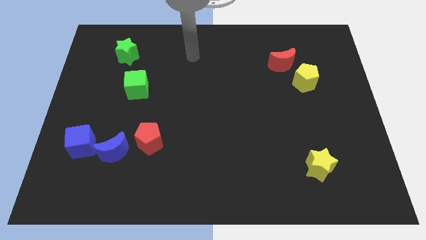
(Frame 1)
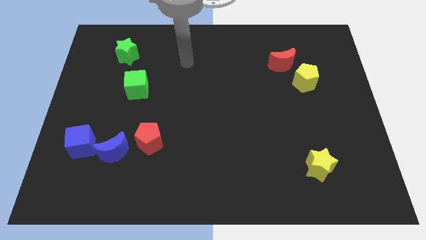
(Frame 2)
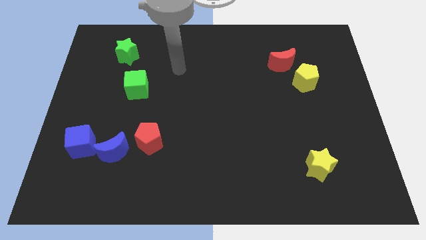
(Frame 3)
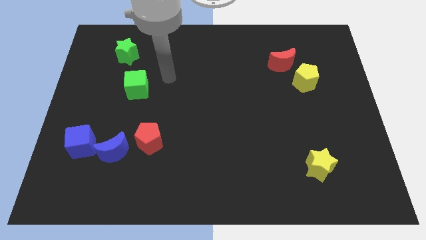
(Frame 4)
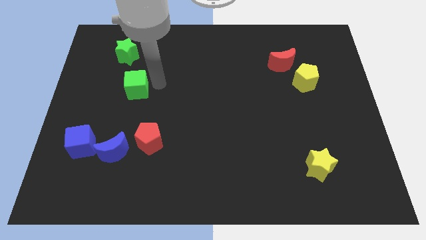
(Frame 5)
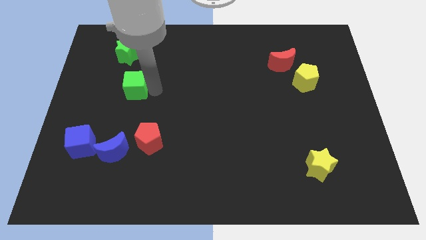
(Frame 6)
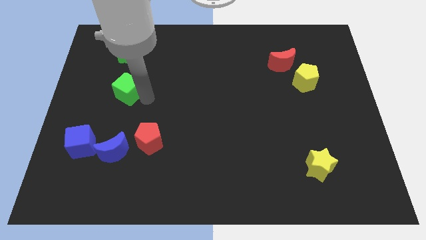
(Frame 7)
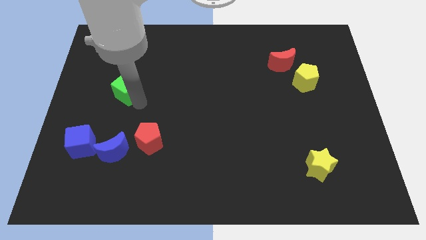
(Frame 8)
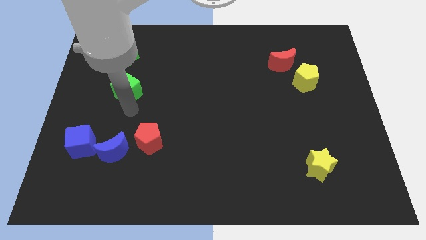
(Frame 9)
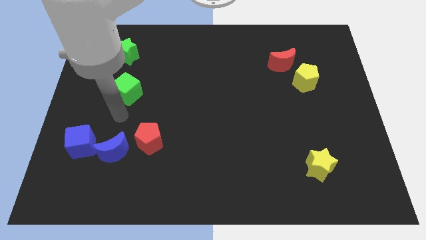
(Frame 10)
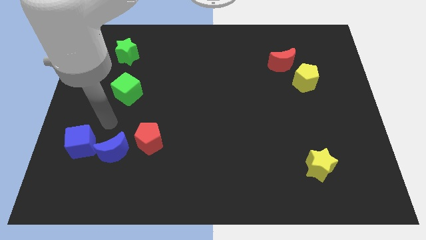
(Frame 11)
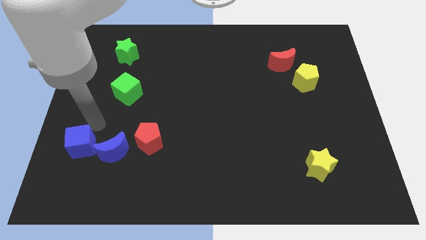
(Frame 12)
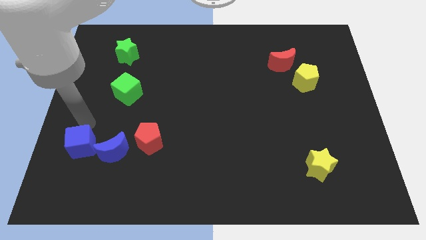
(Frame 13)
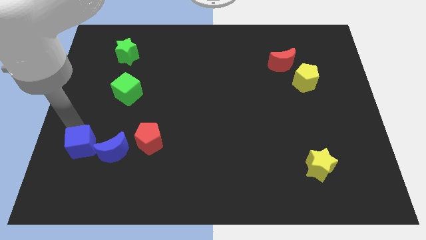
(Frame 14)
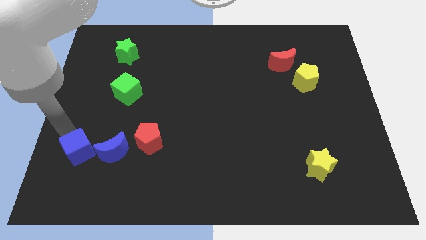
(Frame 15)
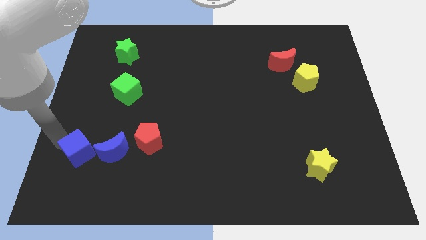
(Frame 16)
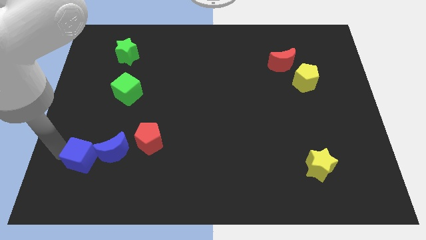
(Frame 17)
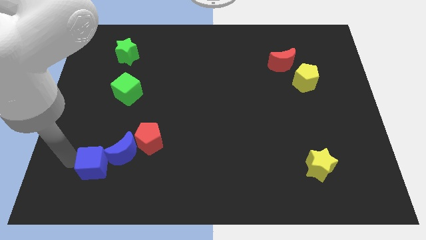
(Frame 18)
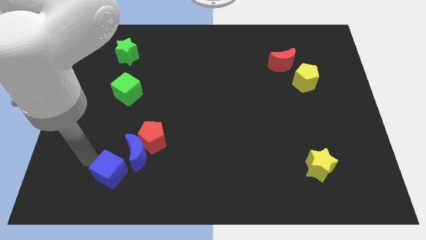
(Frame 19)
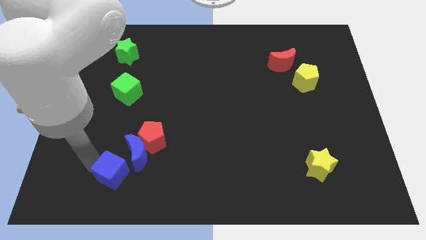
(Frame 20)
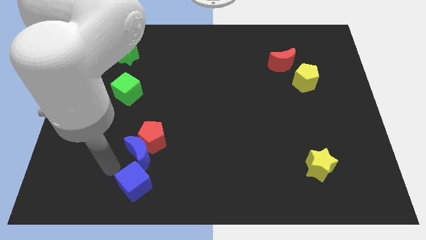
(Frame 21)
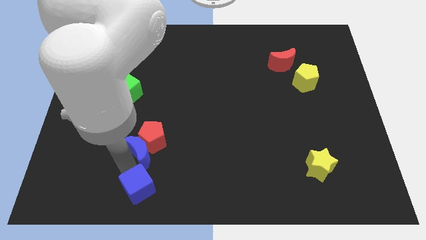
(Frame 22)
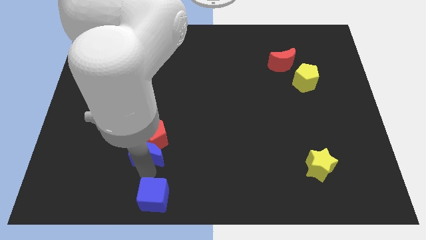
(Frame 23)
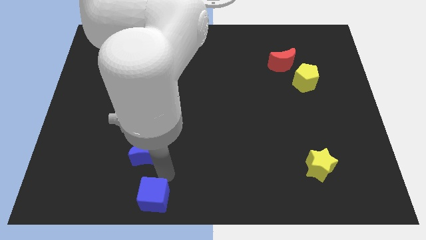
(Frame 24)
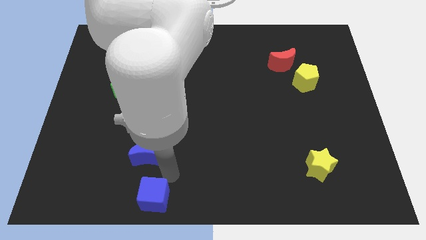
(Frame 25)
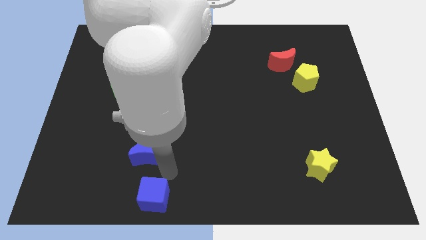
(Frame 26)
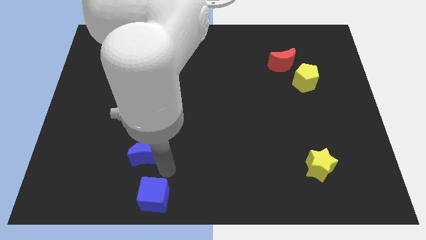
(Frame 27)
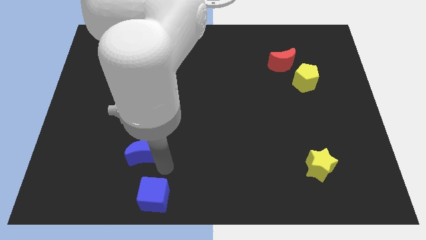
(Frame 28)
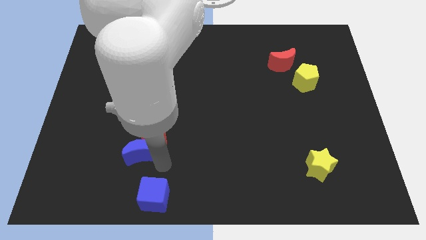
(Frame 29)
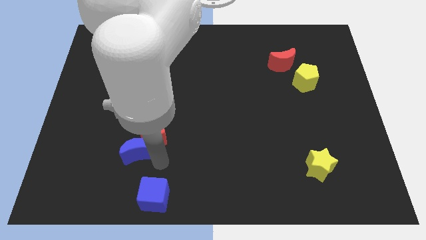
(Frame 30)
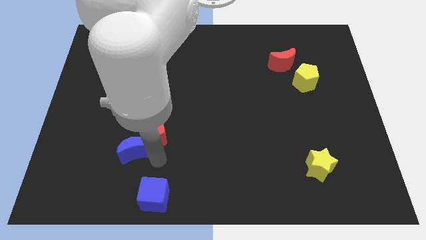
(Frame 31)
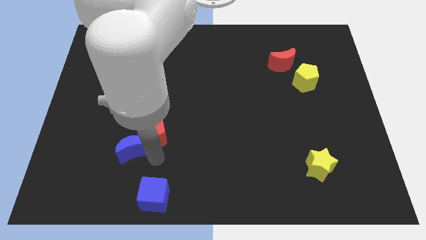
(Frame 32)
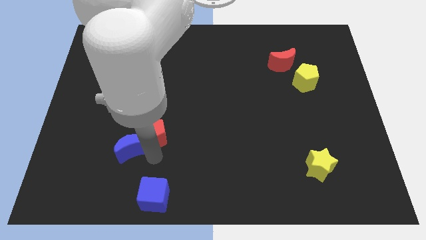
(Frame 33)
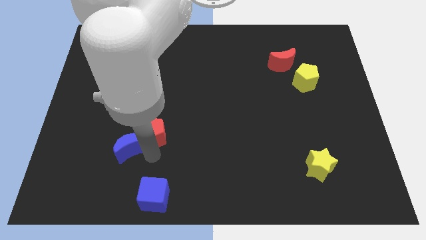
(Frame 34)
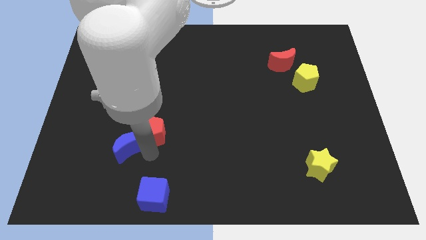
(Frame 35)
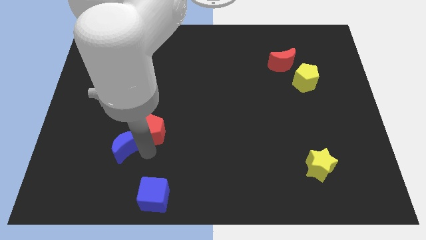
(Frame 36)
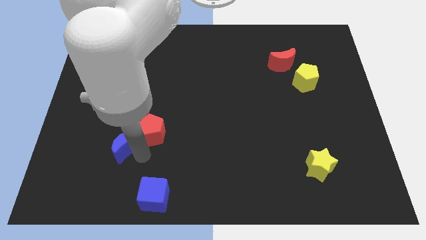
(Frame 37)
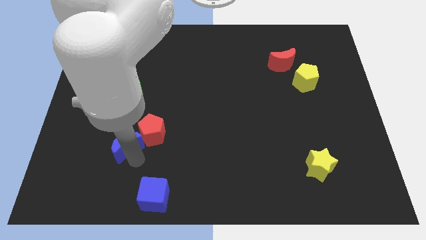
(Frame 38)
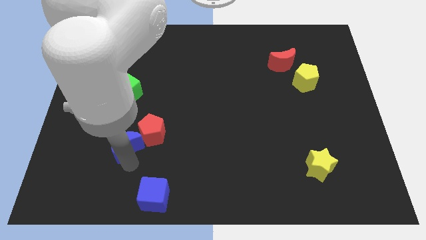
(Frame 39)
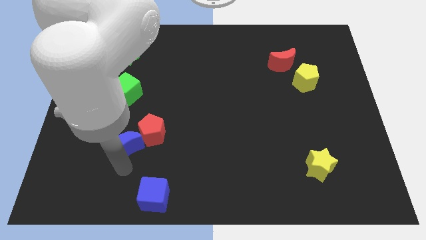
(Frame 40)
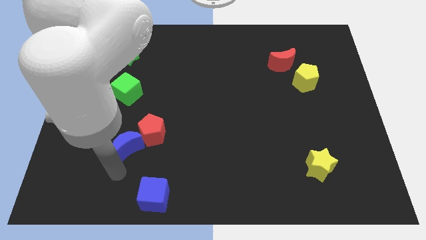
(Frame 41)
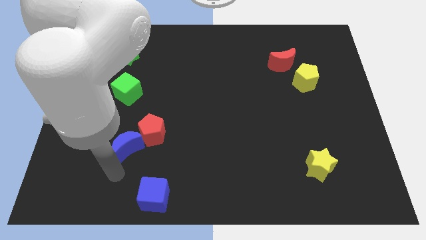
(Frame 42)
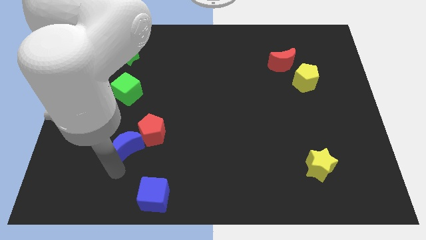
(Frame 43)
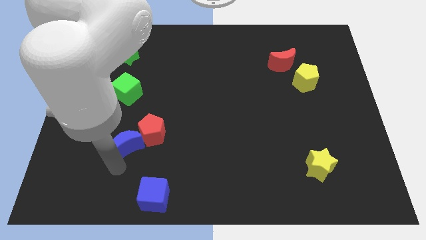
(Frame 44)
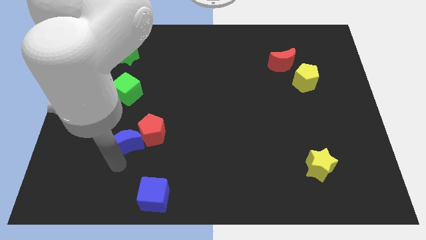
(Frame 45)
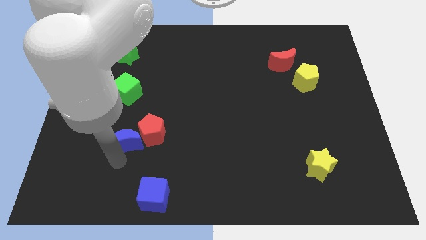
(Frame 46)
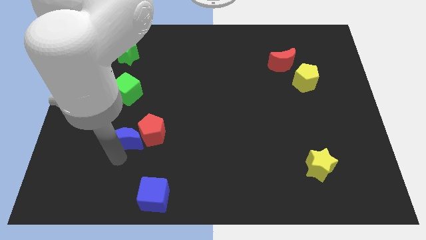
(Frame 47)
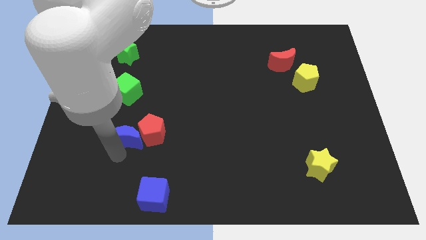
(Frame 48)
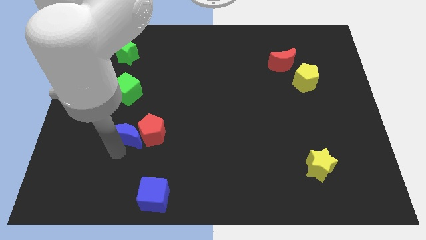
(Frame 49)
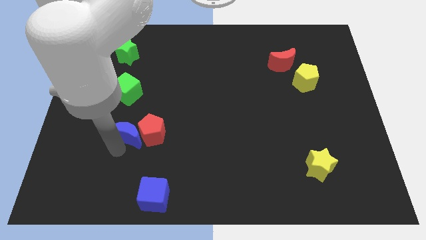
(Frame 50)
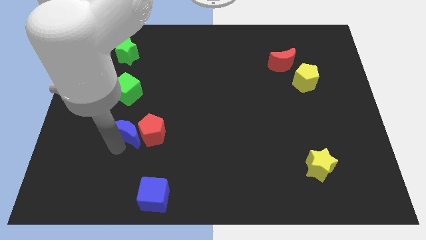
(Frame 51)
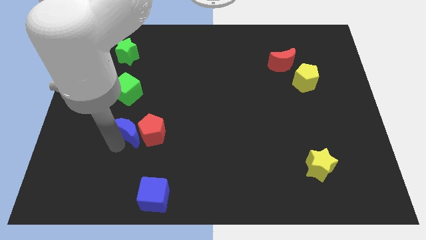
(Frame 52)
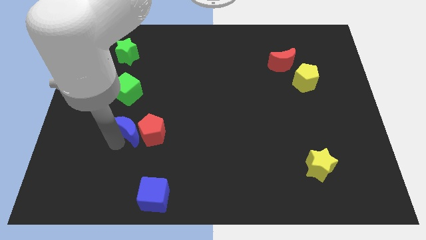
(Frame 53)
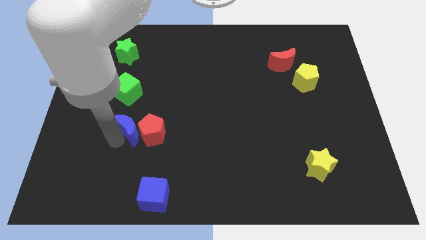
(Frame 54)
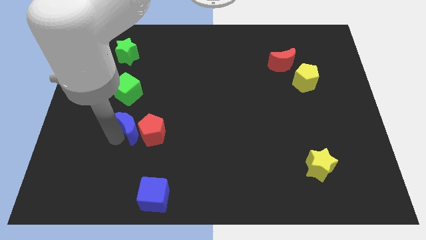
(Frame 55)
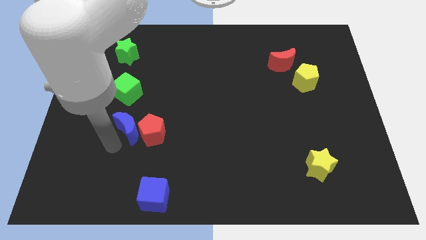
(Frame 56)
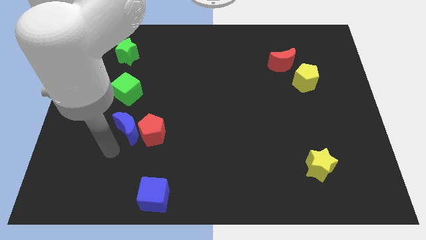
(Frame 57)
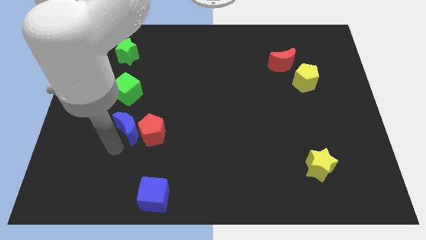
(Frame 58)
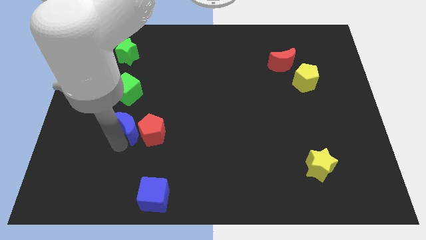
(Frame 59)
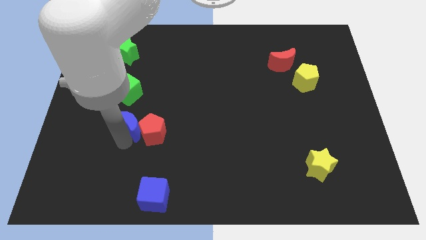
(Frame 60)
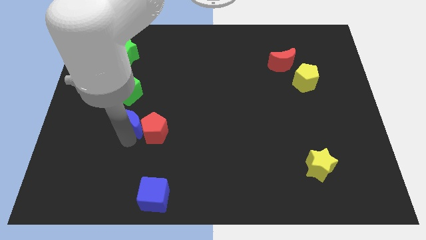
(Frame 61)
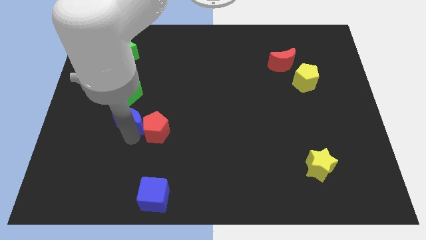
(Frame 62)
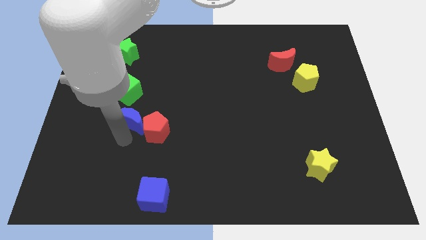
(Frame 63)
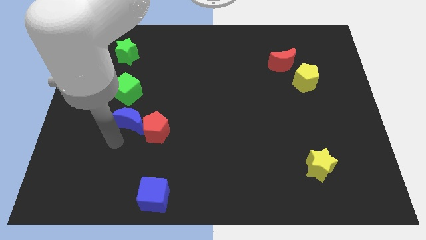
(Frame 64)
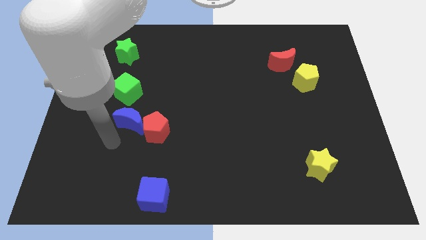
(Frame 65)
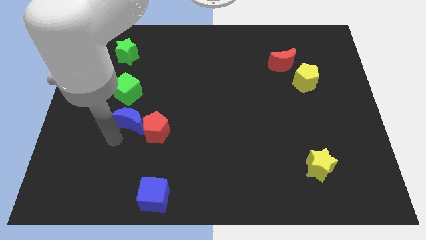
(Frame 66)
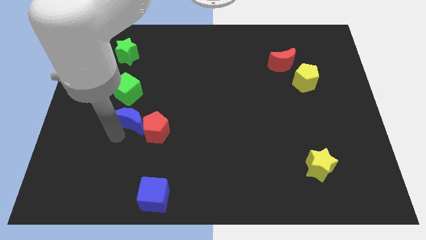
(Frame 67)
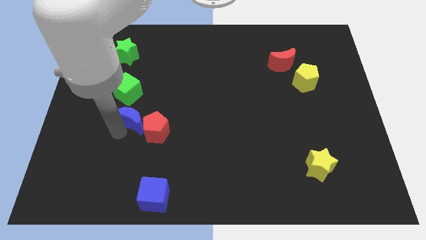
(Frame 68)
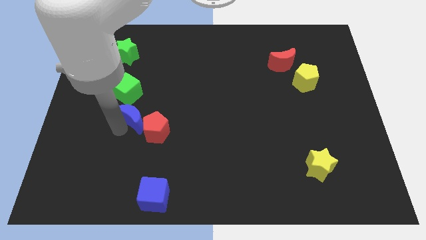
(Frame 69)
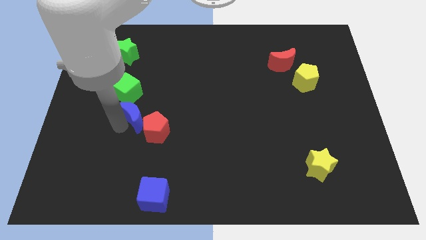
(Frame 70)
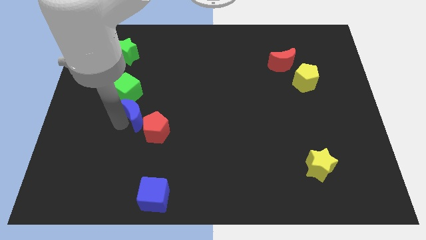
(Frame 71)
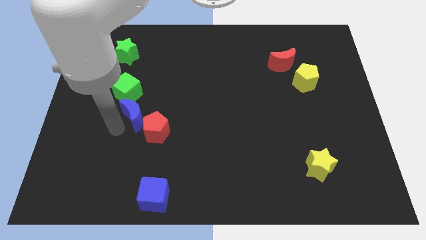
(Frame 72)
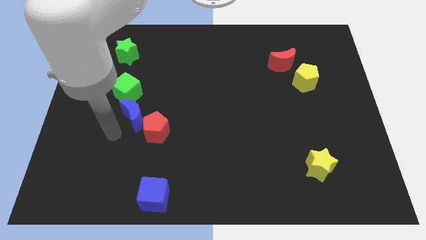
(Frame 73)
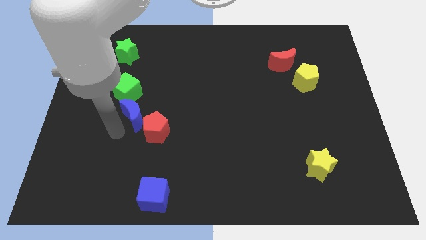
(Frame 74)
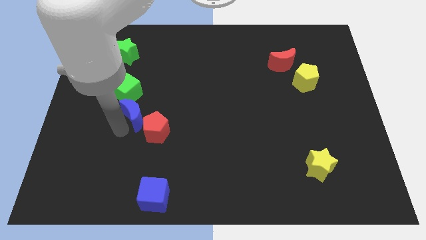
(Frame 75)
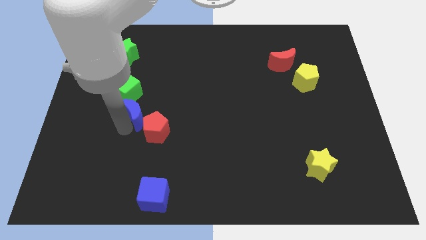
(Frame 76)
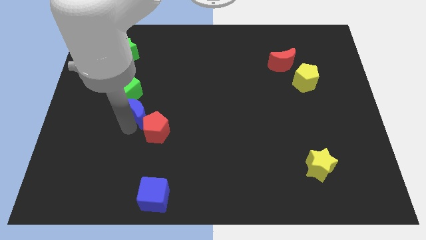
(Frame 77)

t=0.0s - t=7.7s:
push the blue moon above the red pentagon
